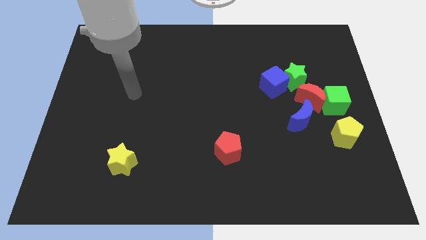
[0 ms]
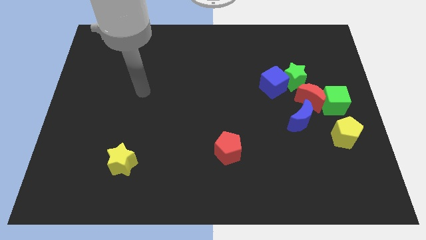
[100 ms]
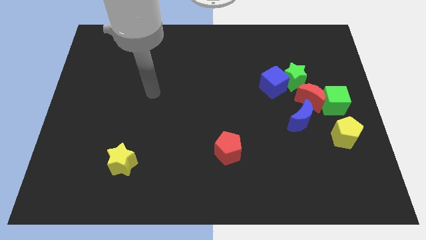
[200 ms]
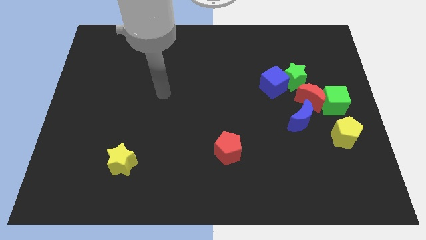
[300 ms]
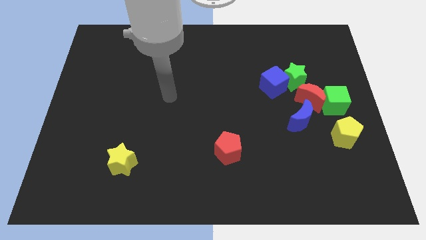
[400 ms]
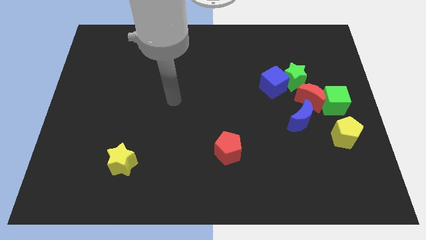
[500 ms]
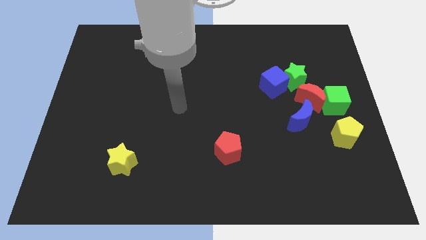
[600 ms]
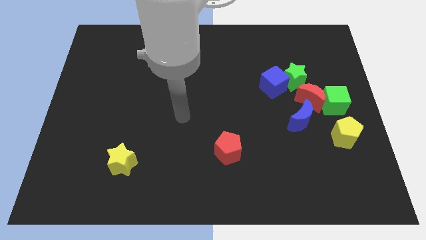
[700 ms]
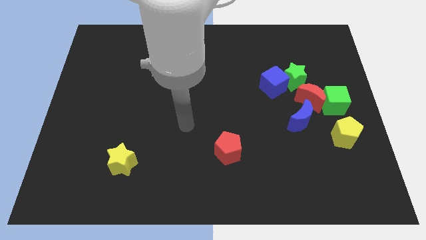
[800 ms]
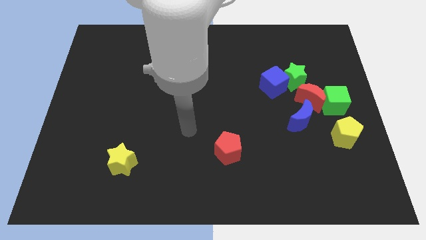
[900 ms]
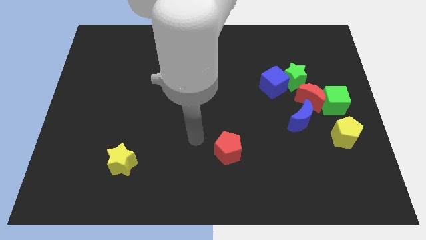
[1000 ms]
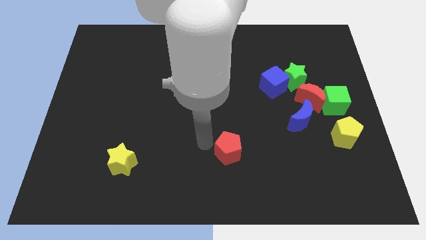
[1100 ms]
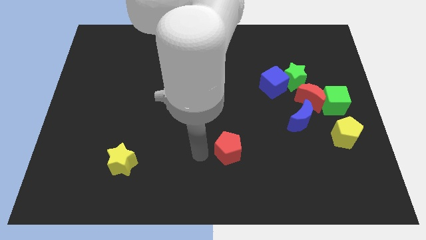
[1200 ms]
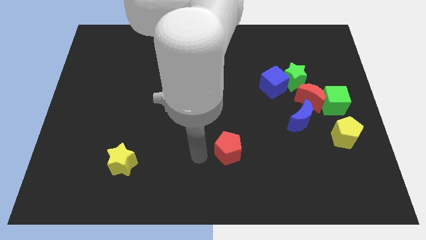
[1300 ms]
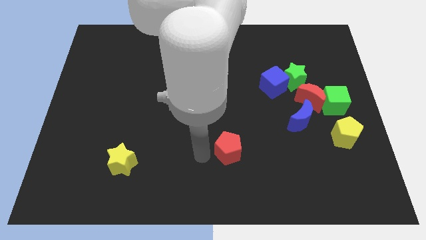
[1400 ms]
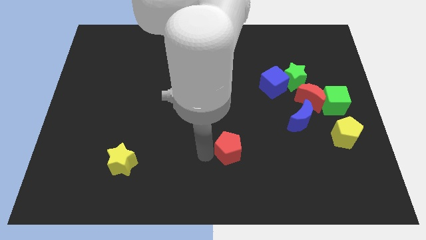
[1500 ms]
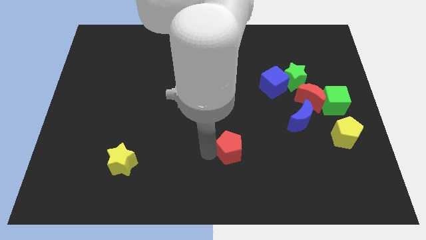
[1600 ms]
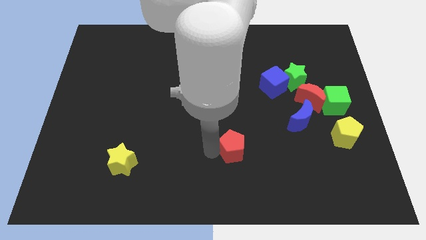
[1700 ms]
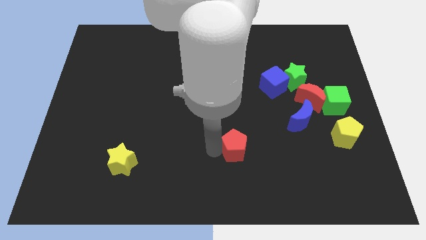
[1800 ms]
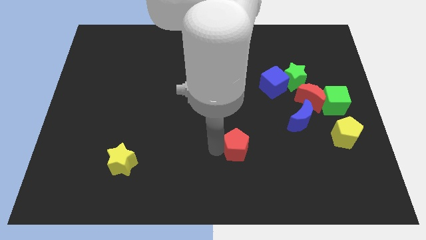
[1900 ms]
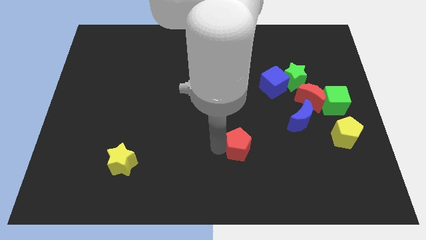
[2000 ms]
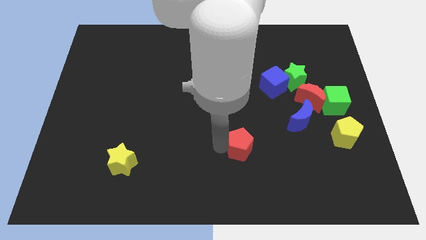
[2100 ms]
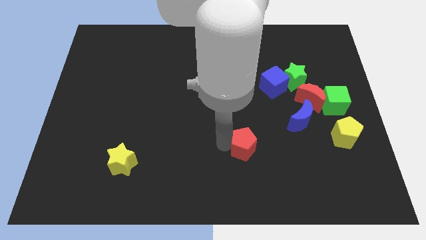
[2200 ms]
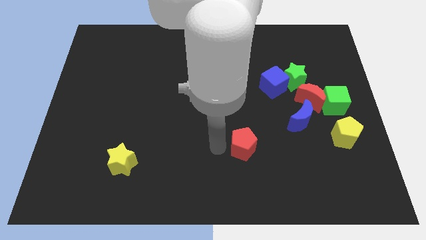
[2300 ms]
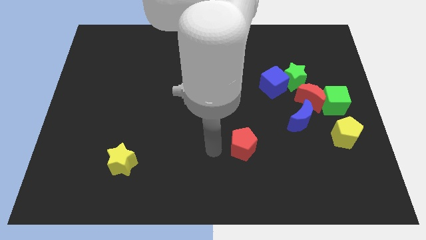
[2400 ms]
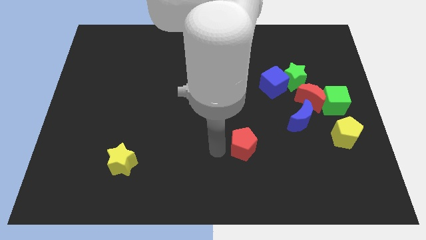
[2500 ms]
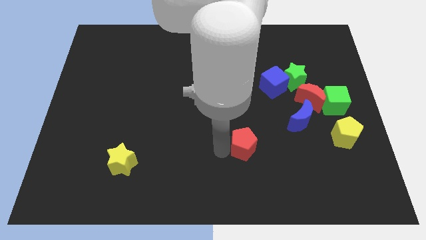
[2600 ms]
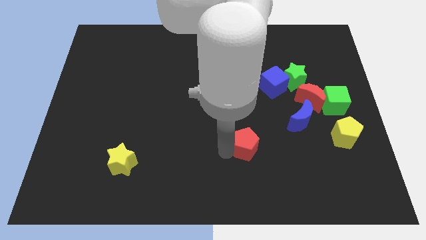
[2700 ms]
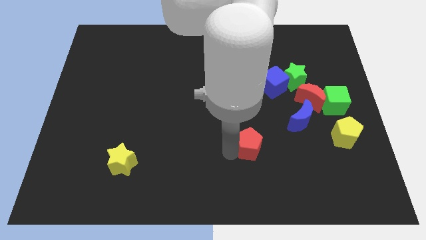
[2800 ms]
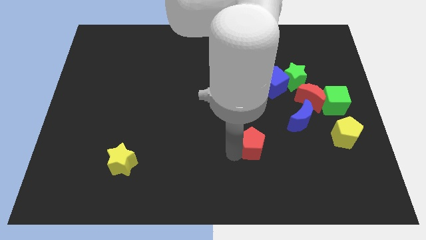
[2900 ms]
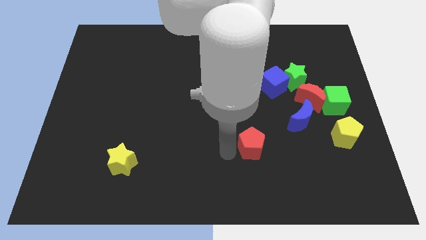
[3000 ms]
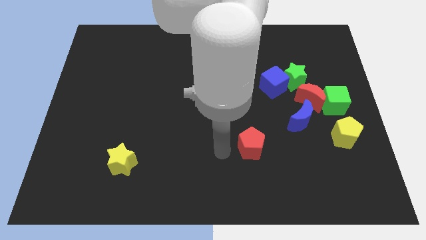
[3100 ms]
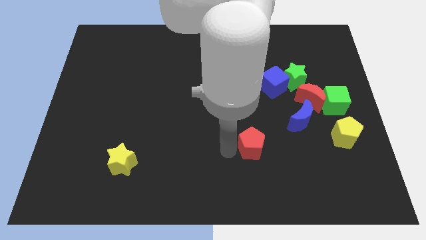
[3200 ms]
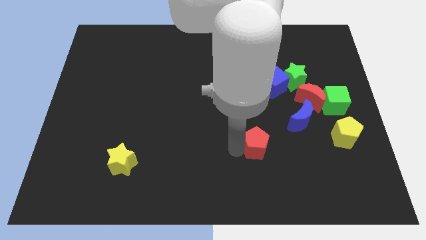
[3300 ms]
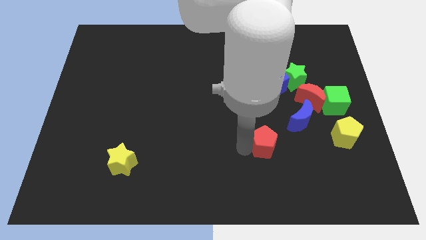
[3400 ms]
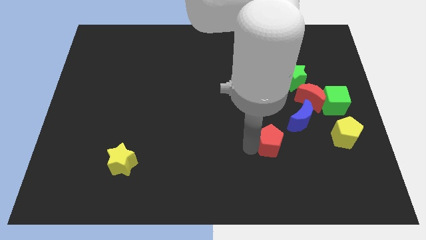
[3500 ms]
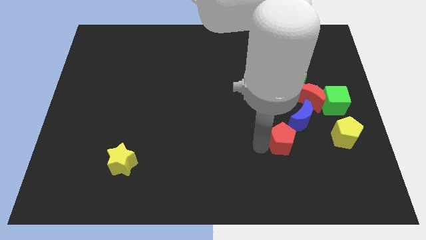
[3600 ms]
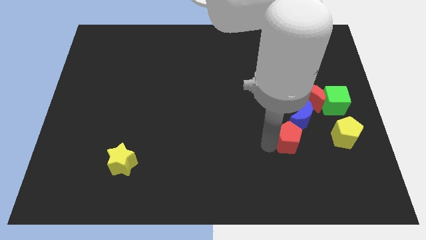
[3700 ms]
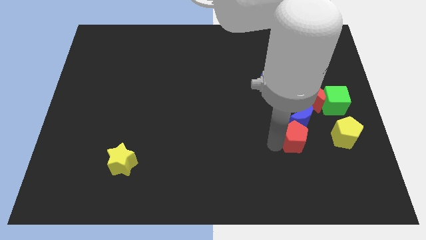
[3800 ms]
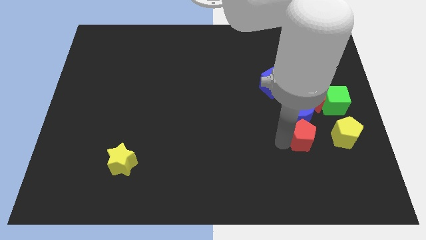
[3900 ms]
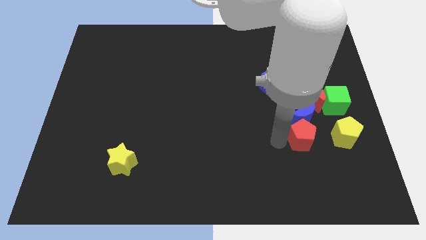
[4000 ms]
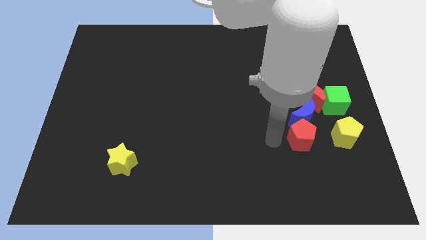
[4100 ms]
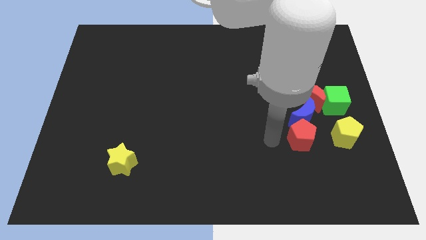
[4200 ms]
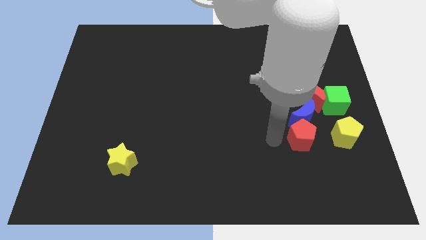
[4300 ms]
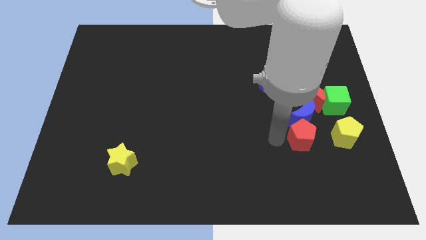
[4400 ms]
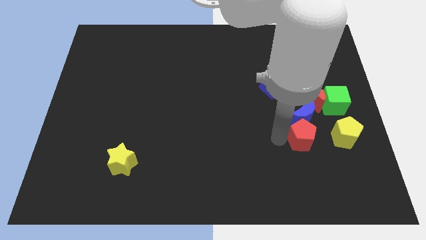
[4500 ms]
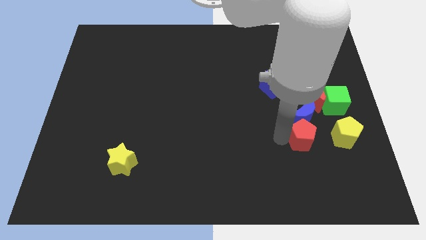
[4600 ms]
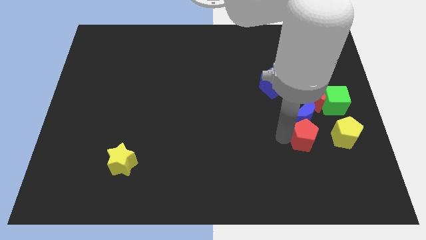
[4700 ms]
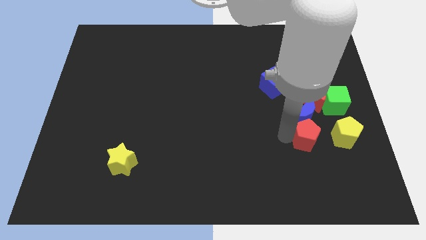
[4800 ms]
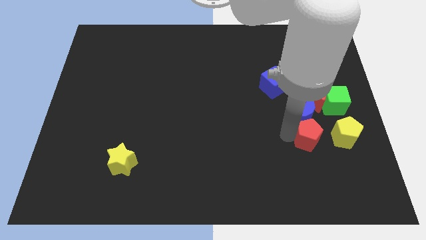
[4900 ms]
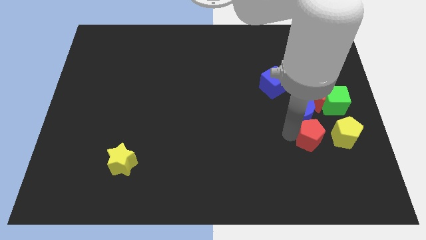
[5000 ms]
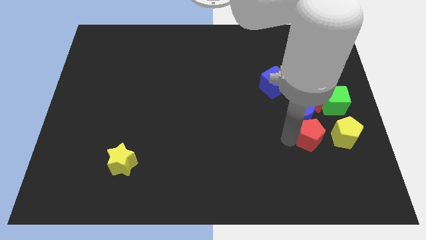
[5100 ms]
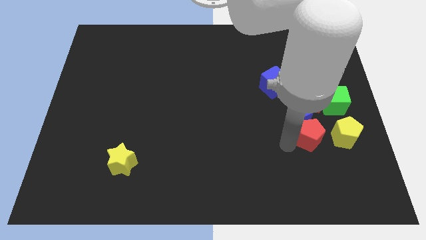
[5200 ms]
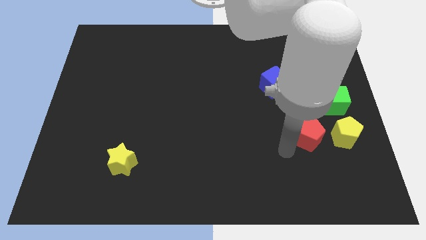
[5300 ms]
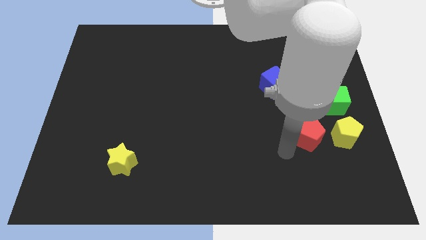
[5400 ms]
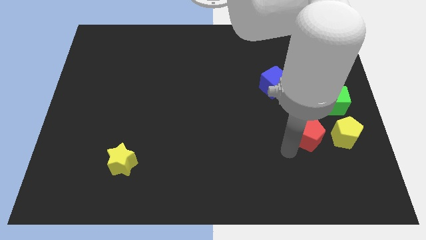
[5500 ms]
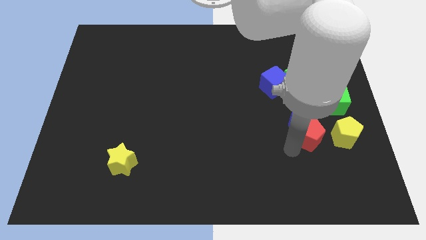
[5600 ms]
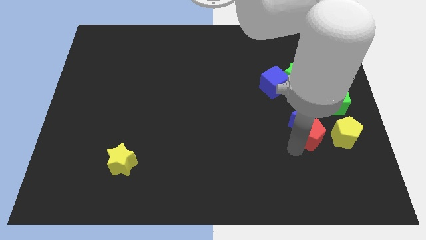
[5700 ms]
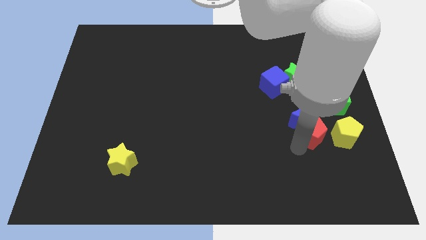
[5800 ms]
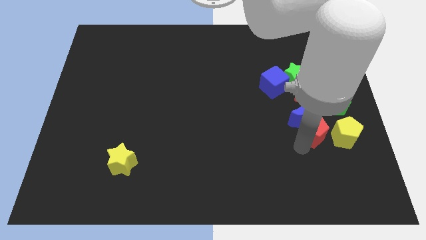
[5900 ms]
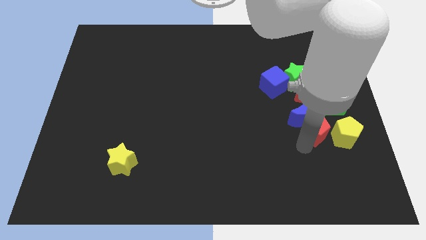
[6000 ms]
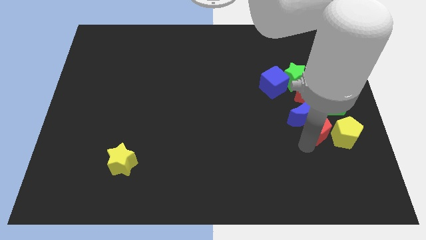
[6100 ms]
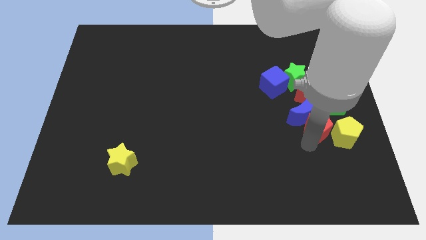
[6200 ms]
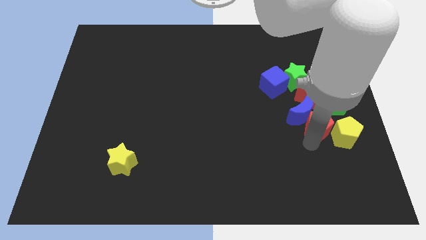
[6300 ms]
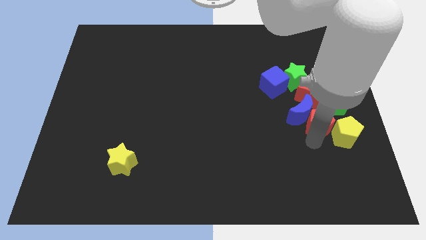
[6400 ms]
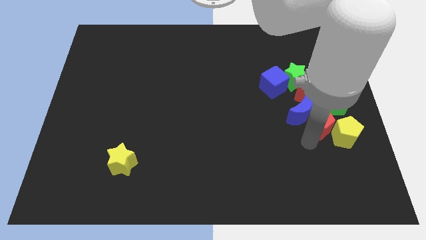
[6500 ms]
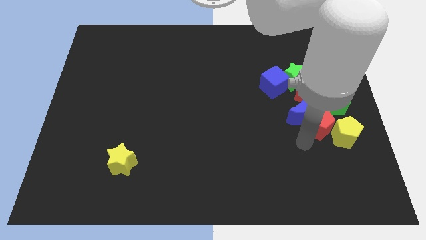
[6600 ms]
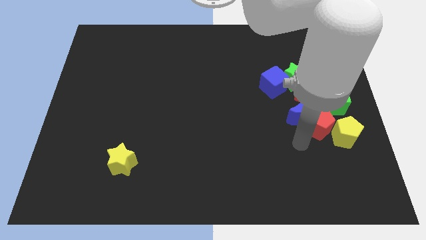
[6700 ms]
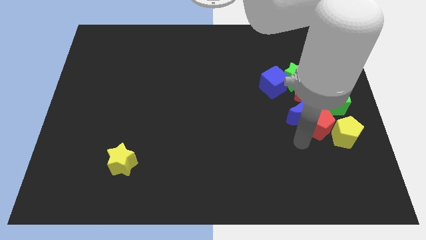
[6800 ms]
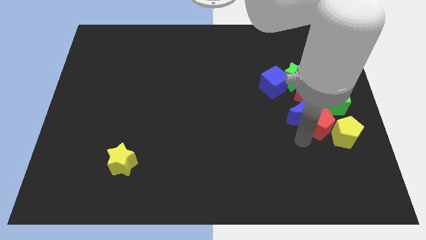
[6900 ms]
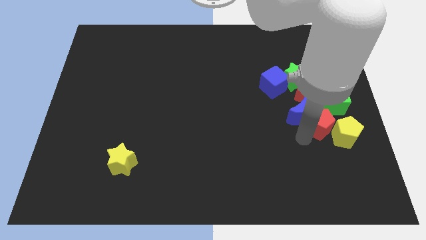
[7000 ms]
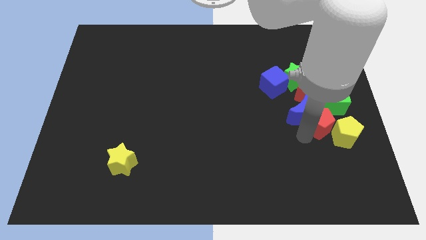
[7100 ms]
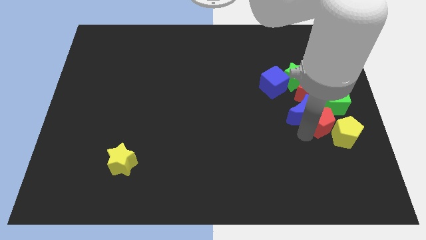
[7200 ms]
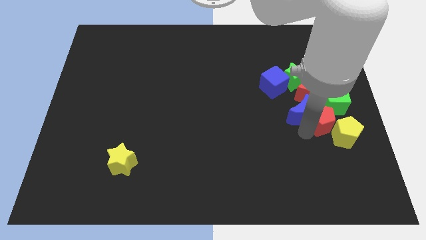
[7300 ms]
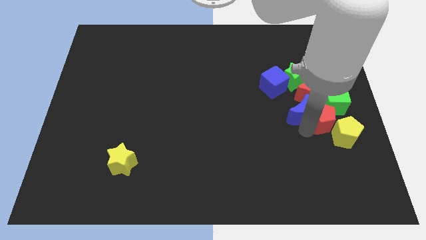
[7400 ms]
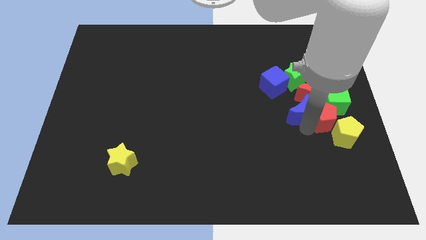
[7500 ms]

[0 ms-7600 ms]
put the red pentagon to the green cube

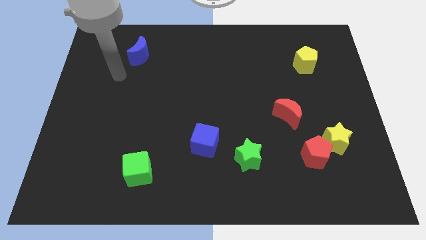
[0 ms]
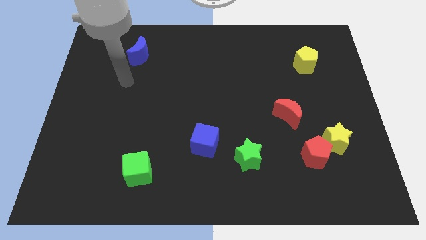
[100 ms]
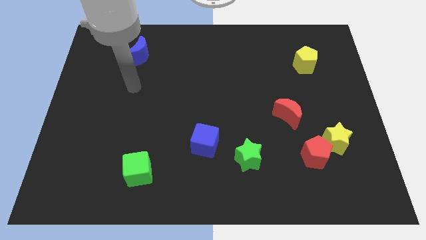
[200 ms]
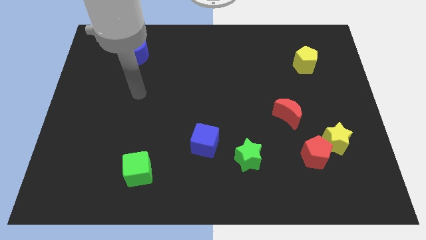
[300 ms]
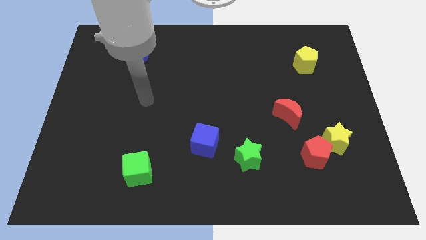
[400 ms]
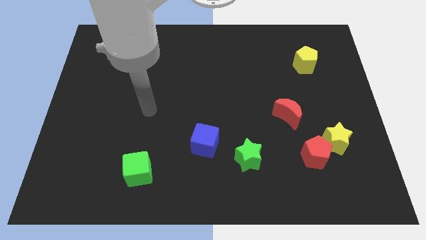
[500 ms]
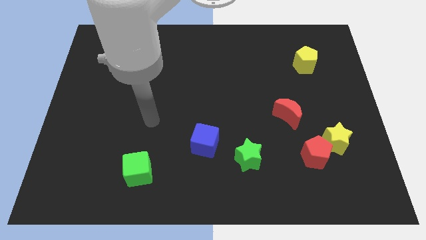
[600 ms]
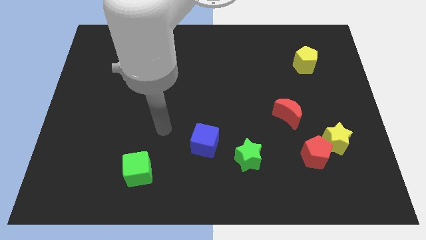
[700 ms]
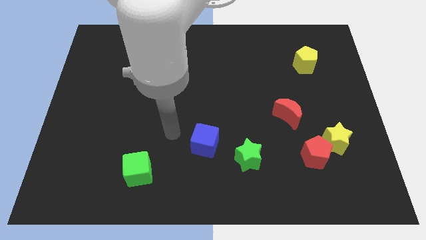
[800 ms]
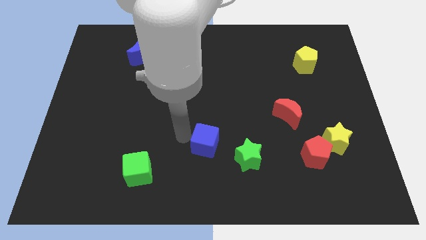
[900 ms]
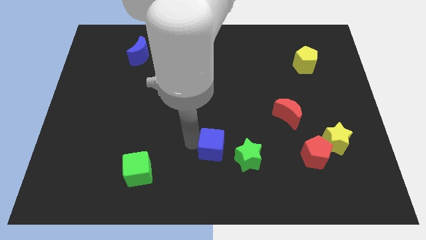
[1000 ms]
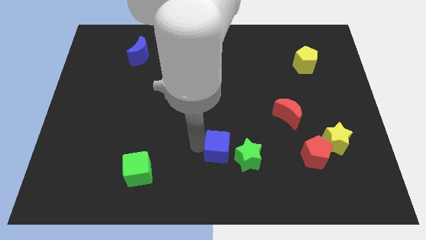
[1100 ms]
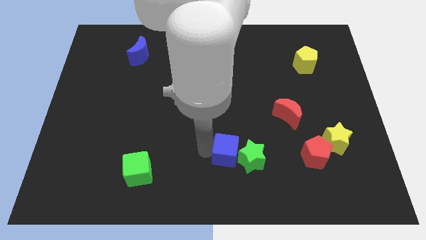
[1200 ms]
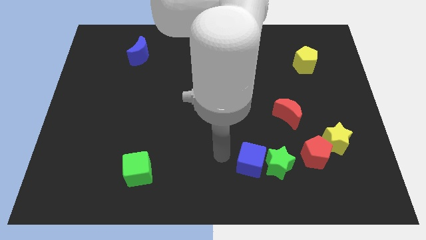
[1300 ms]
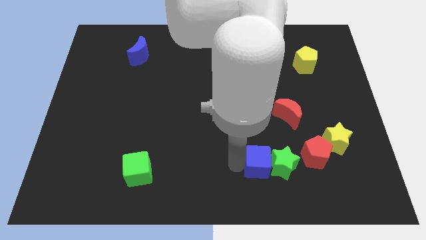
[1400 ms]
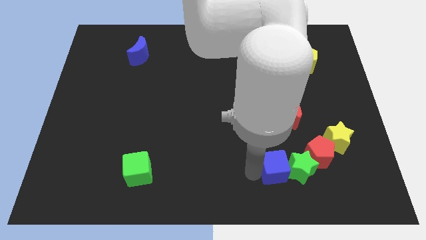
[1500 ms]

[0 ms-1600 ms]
slide the green star to the red pentagon
